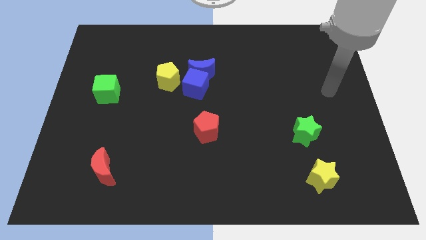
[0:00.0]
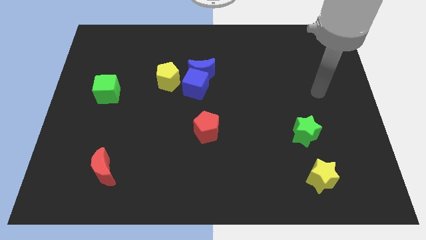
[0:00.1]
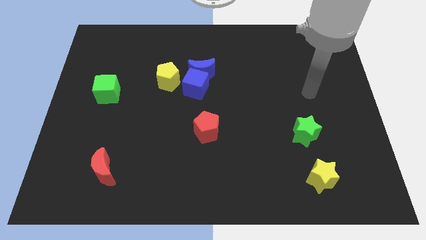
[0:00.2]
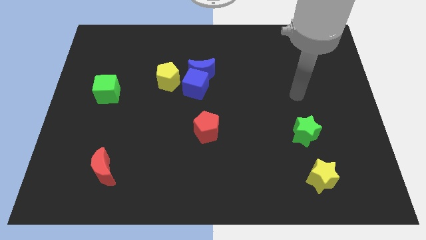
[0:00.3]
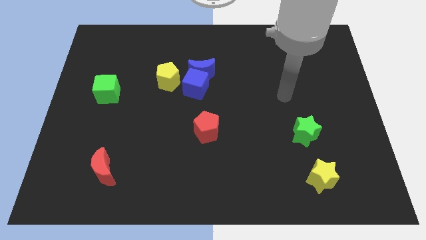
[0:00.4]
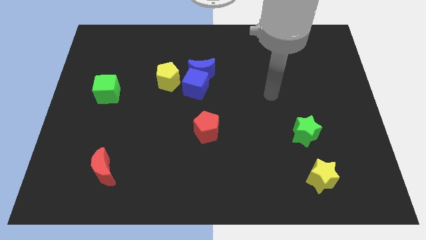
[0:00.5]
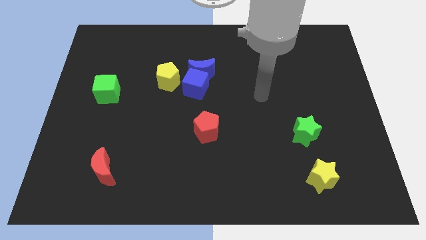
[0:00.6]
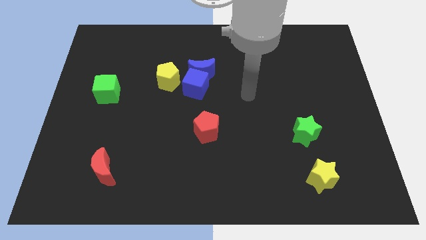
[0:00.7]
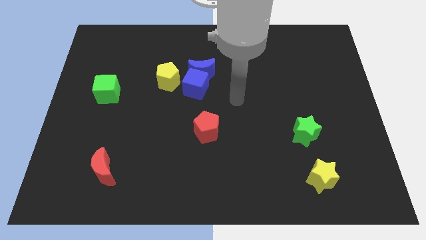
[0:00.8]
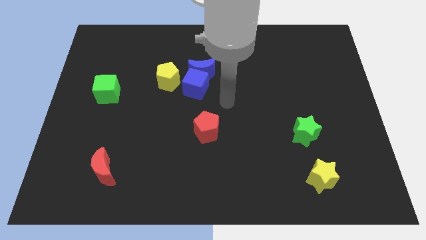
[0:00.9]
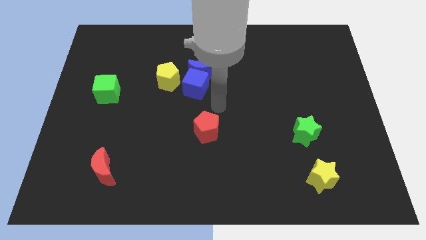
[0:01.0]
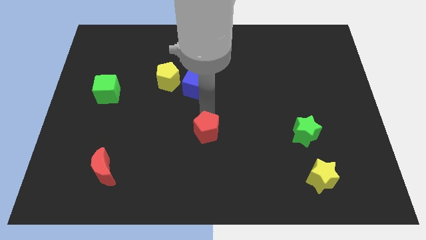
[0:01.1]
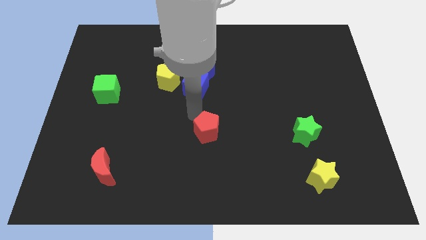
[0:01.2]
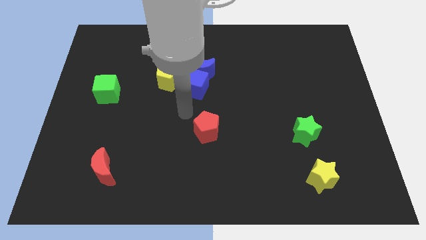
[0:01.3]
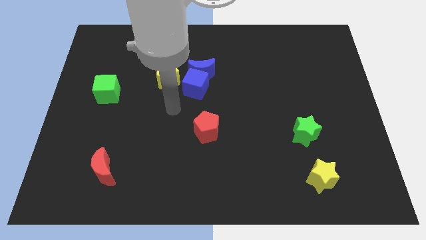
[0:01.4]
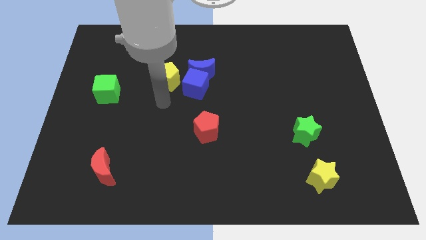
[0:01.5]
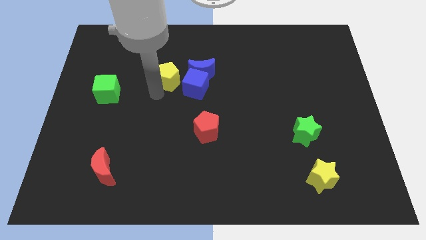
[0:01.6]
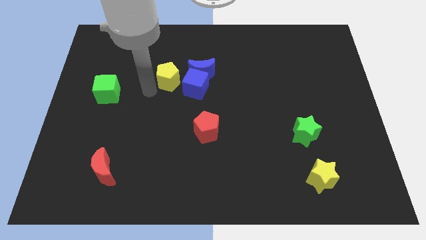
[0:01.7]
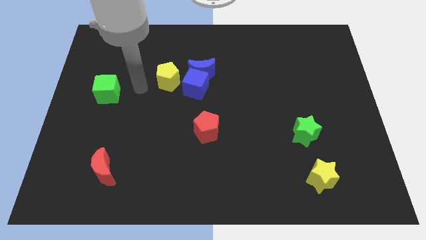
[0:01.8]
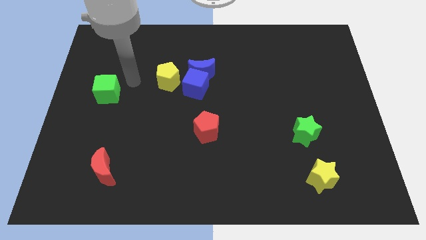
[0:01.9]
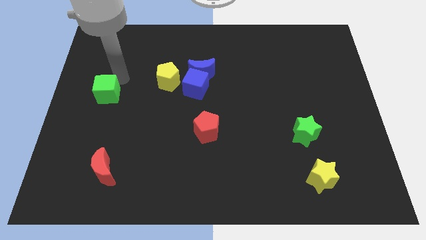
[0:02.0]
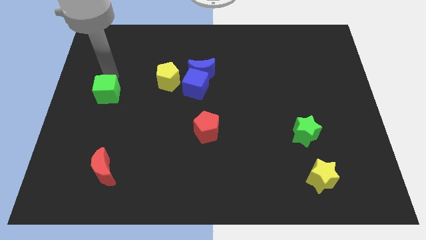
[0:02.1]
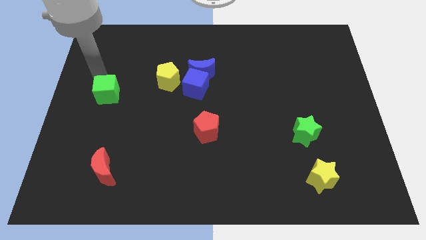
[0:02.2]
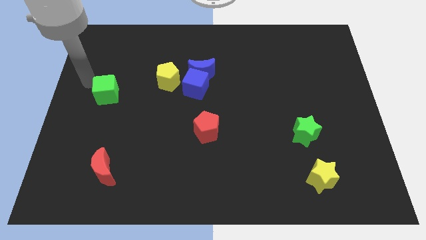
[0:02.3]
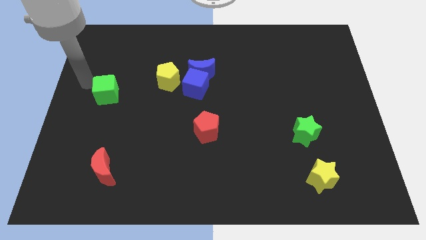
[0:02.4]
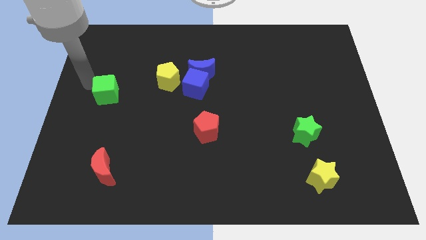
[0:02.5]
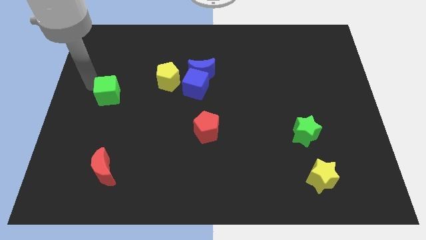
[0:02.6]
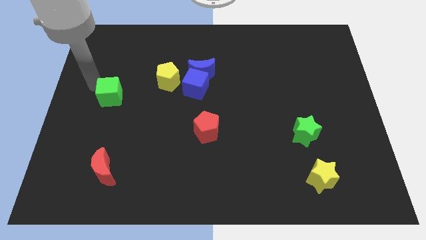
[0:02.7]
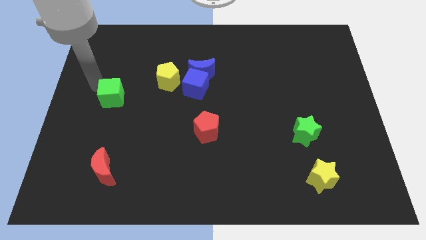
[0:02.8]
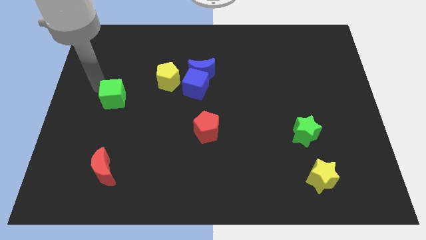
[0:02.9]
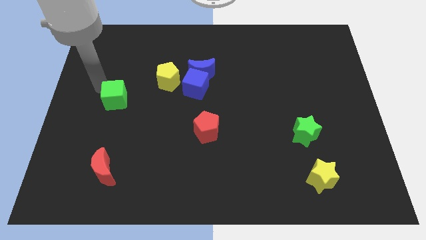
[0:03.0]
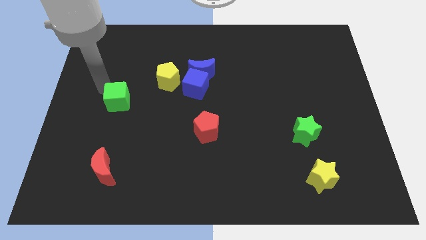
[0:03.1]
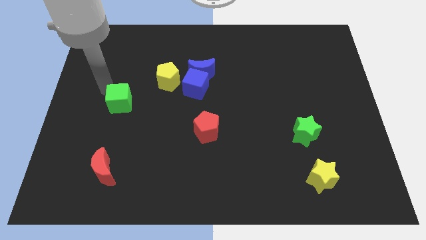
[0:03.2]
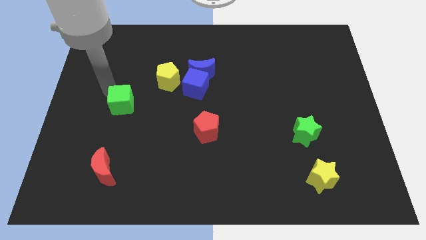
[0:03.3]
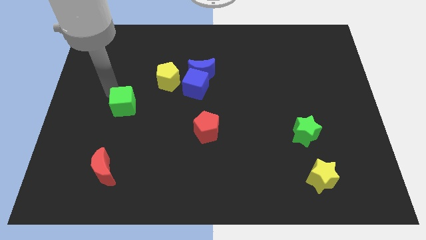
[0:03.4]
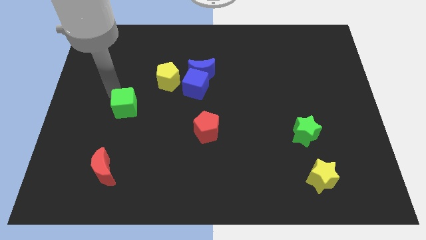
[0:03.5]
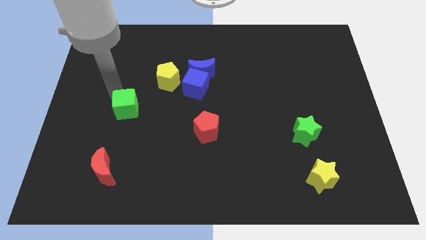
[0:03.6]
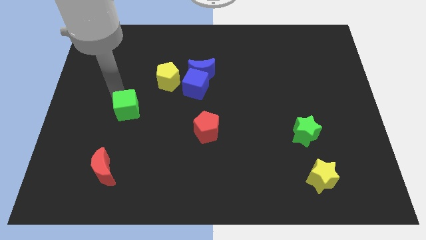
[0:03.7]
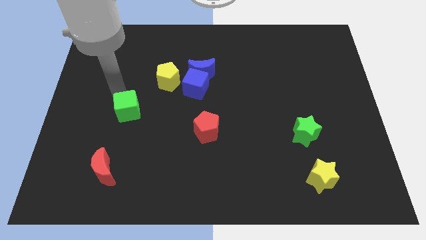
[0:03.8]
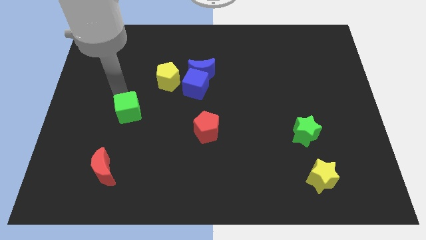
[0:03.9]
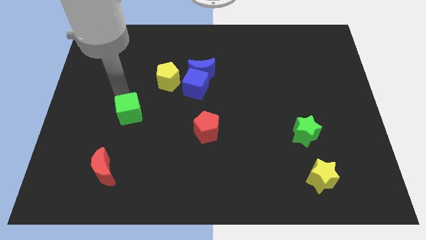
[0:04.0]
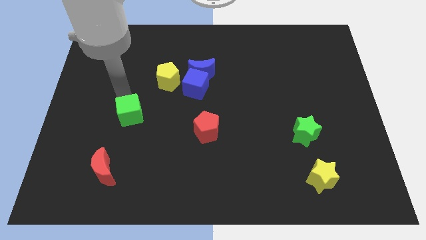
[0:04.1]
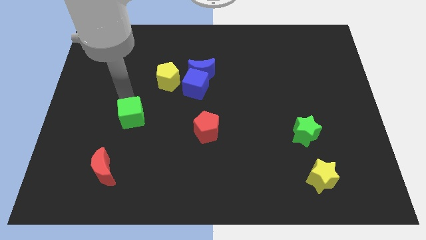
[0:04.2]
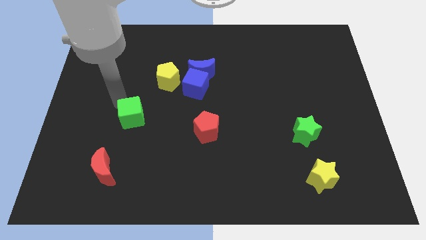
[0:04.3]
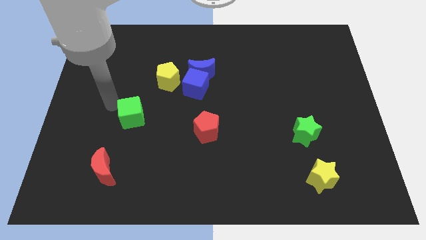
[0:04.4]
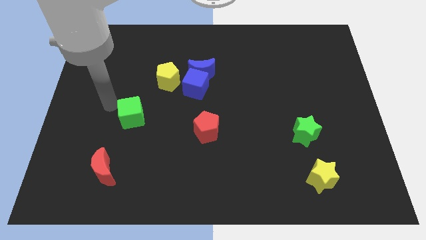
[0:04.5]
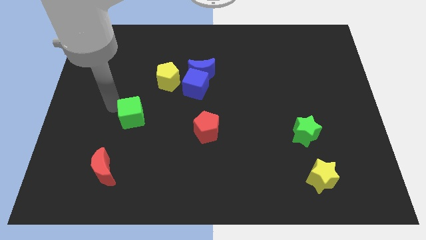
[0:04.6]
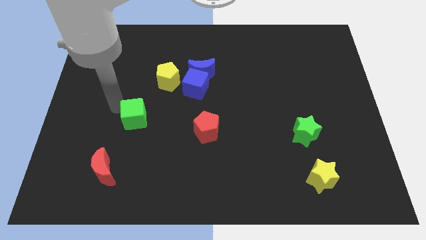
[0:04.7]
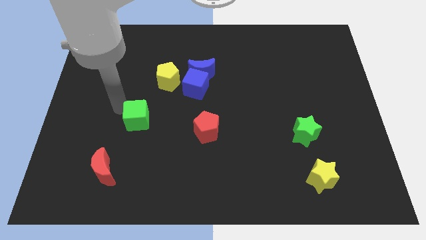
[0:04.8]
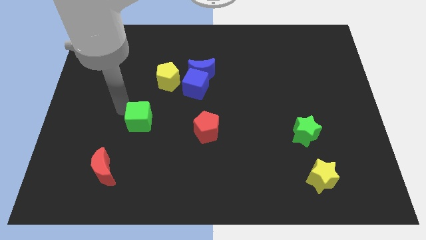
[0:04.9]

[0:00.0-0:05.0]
slide the green cube to the left of the red pentagon

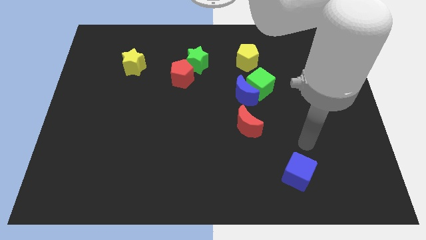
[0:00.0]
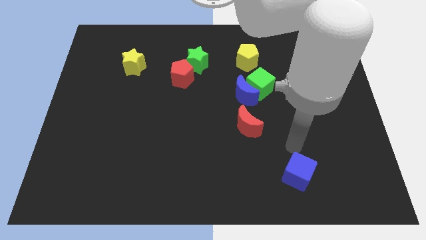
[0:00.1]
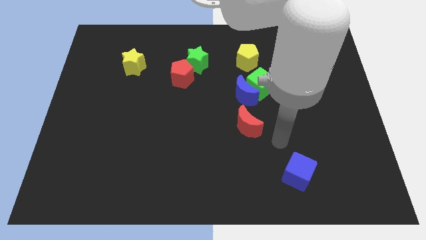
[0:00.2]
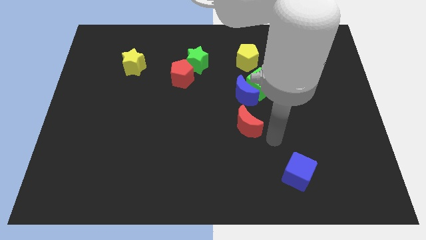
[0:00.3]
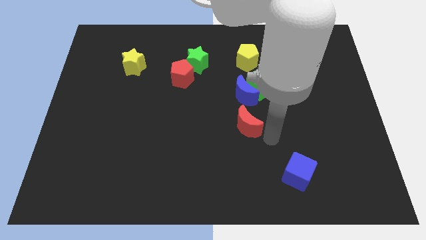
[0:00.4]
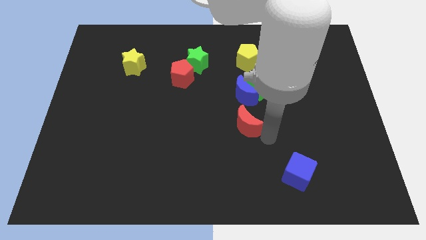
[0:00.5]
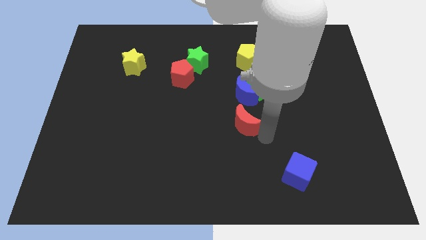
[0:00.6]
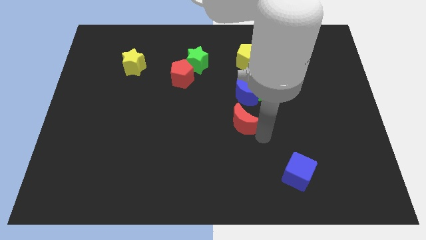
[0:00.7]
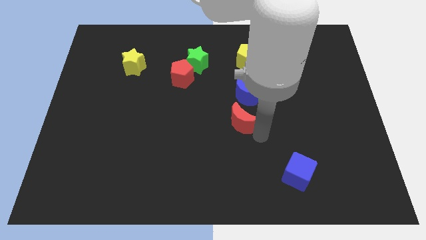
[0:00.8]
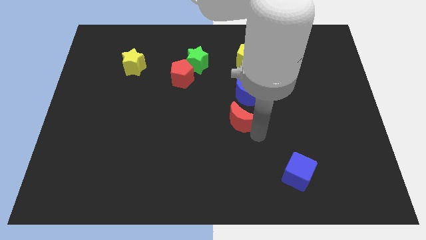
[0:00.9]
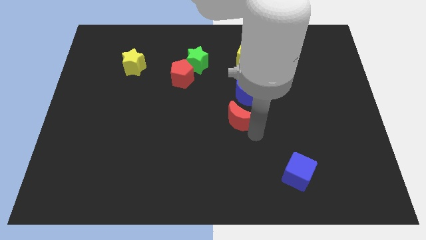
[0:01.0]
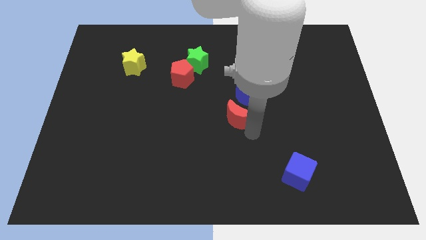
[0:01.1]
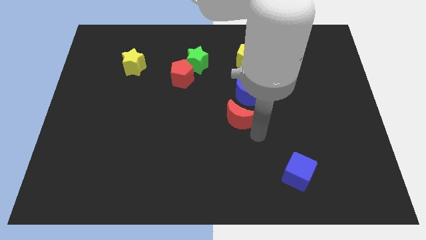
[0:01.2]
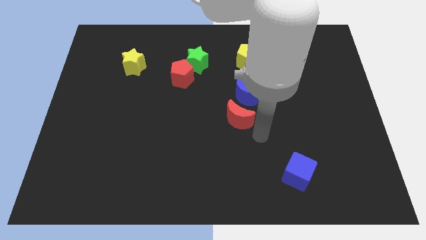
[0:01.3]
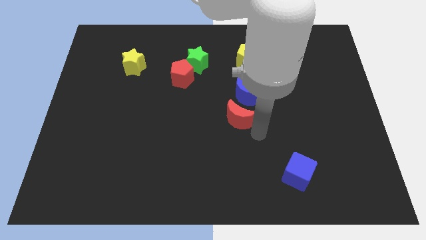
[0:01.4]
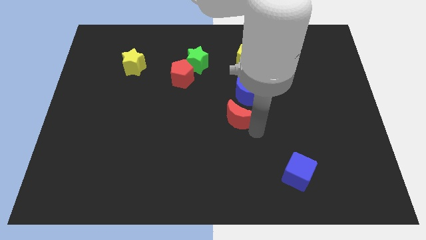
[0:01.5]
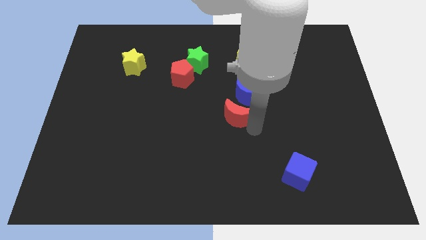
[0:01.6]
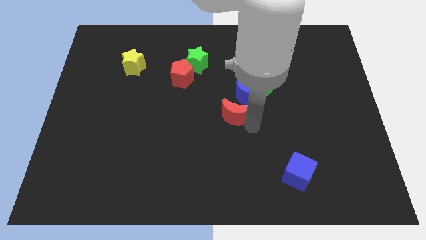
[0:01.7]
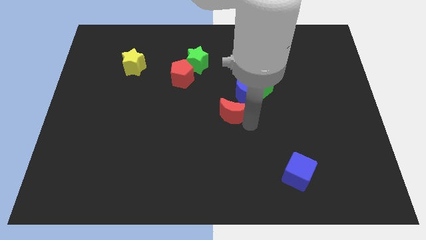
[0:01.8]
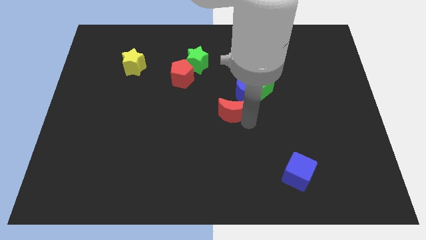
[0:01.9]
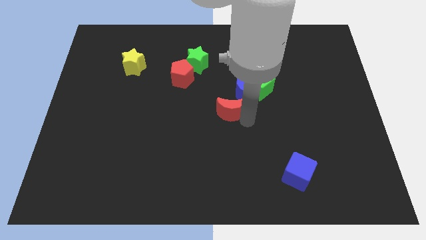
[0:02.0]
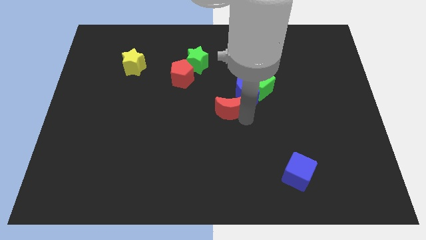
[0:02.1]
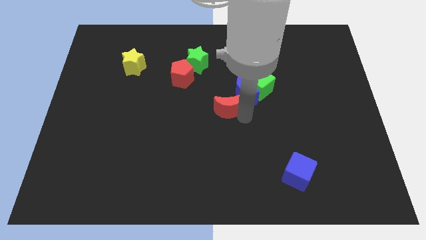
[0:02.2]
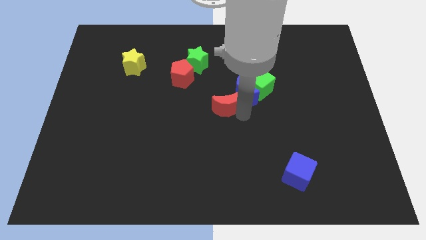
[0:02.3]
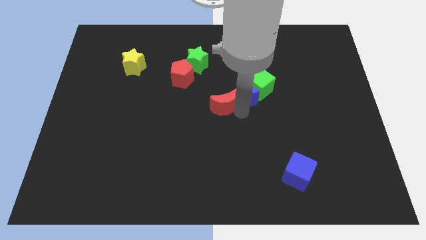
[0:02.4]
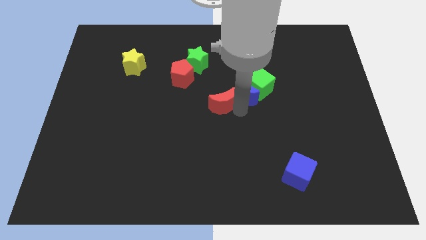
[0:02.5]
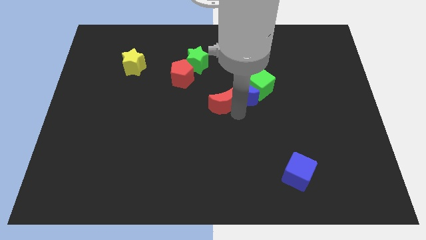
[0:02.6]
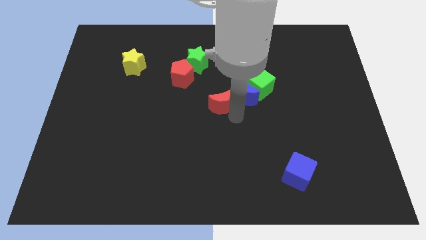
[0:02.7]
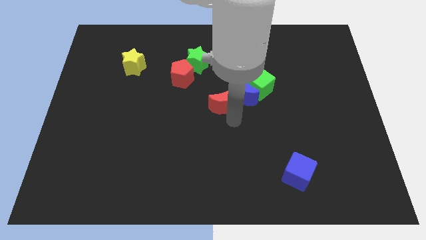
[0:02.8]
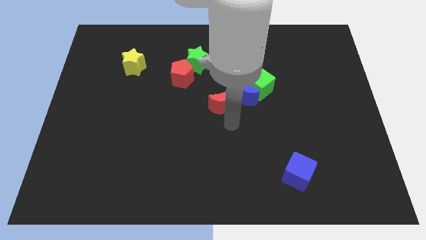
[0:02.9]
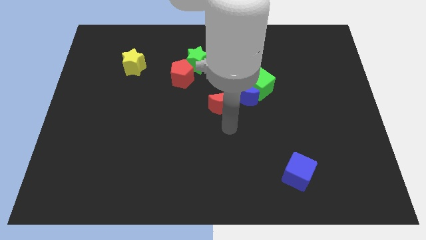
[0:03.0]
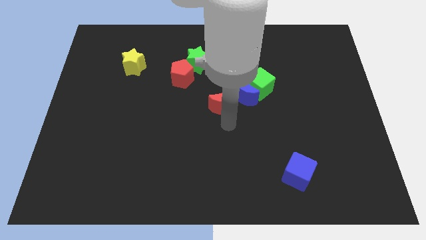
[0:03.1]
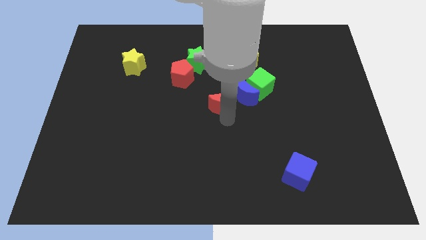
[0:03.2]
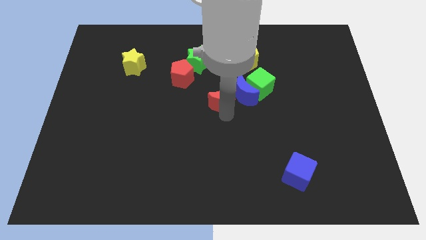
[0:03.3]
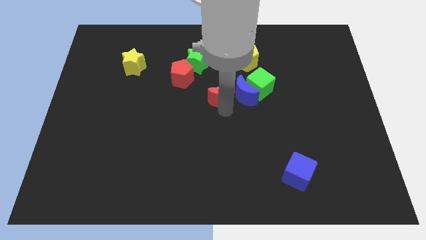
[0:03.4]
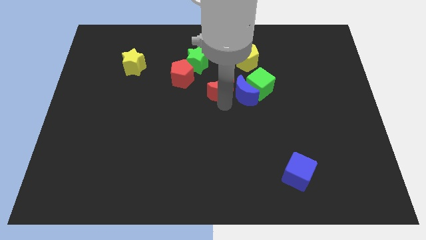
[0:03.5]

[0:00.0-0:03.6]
move the red moon diagonally down and to the right of the green star
